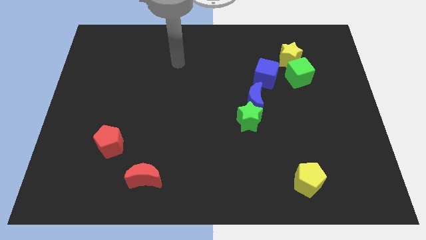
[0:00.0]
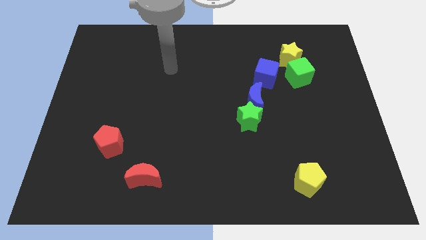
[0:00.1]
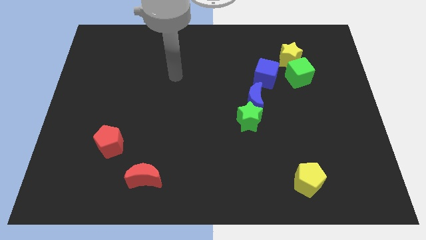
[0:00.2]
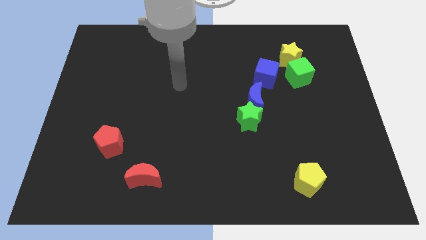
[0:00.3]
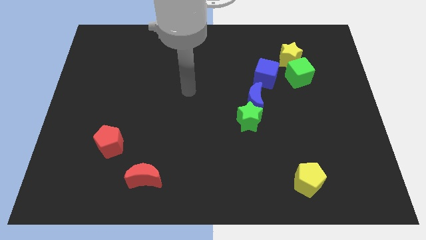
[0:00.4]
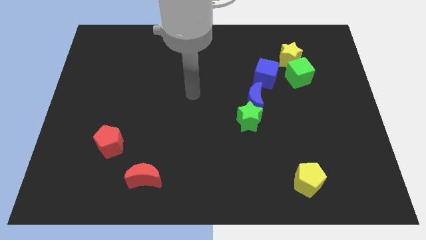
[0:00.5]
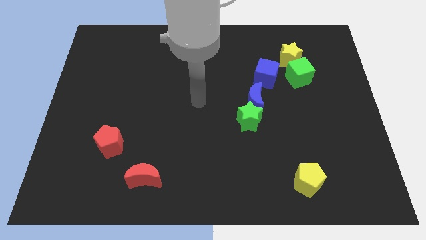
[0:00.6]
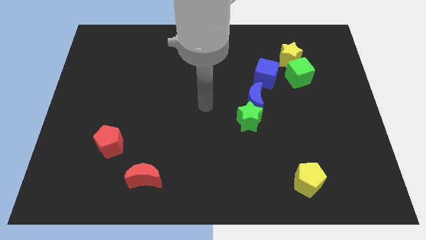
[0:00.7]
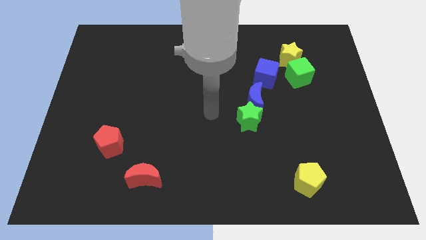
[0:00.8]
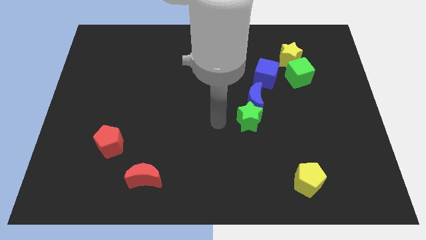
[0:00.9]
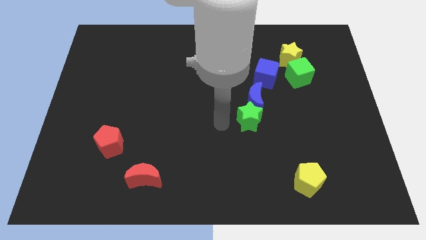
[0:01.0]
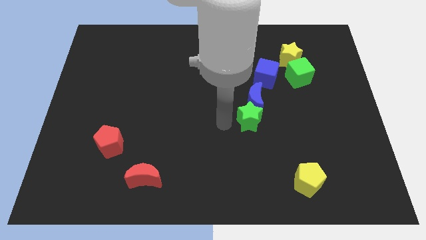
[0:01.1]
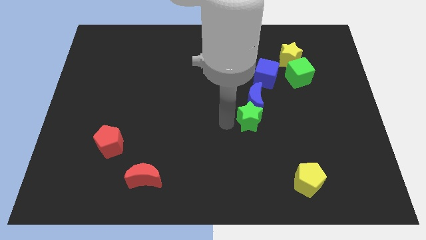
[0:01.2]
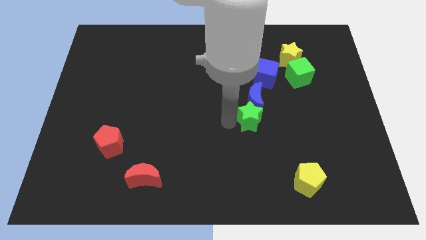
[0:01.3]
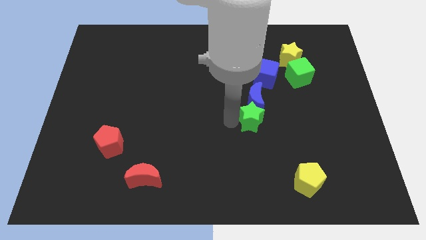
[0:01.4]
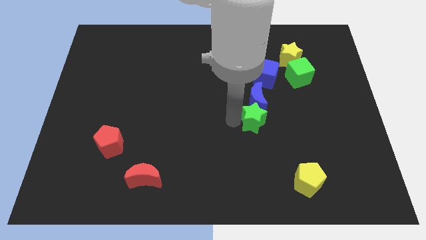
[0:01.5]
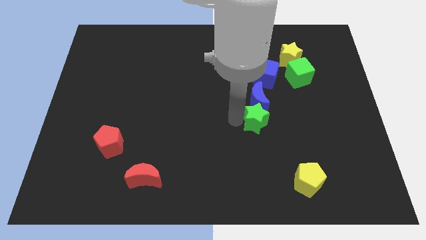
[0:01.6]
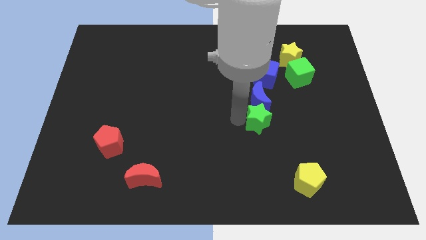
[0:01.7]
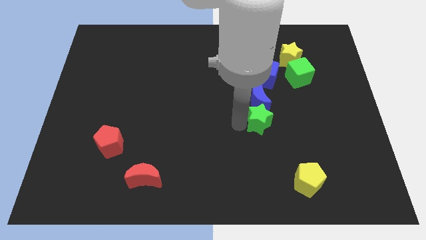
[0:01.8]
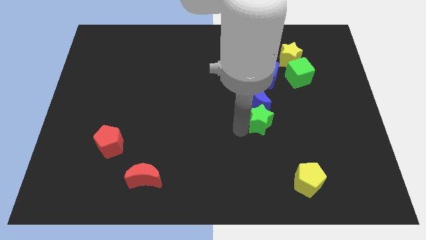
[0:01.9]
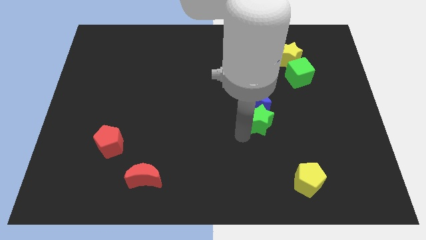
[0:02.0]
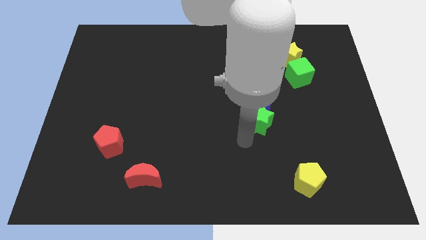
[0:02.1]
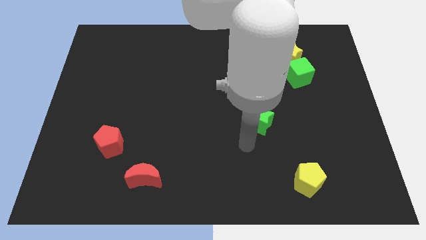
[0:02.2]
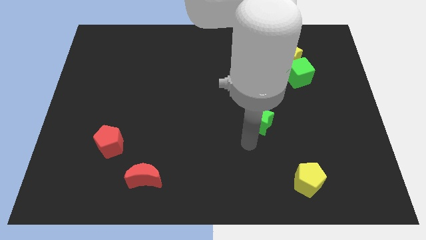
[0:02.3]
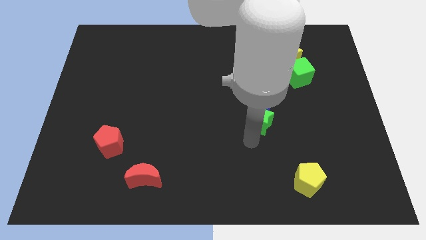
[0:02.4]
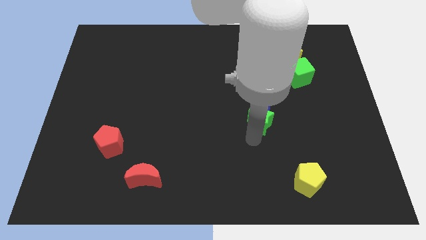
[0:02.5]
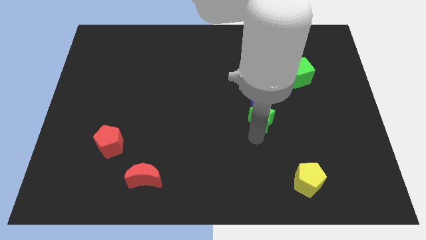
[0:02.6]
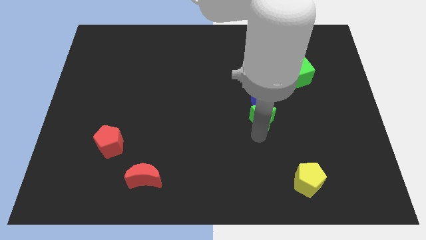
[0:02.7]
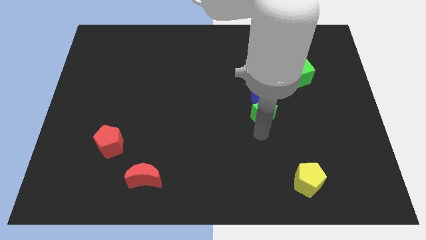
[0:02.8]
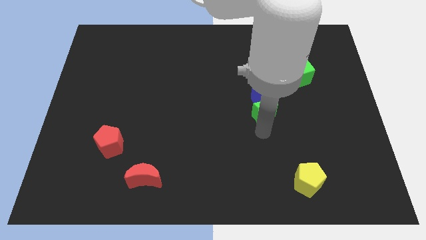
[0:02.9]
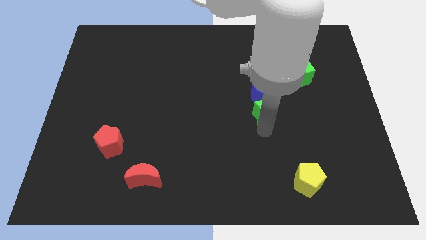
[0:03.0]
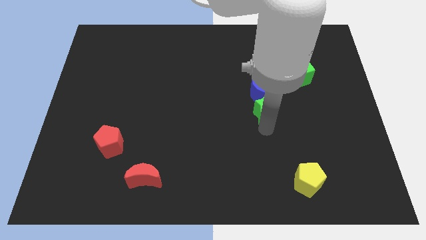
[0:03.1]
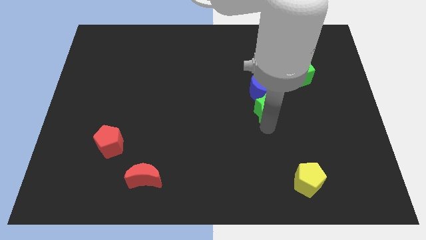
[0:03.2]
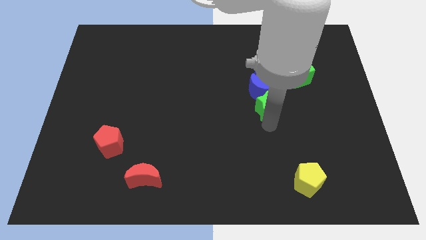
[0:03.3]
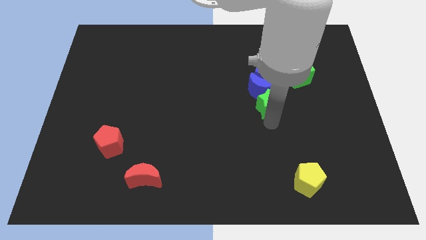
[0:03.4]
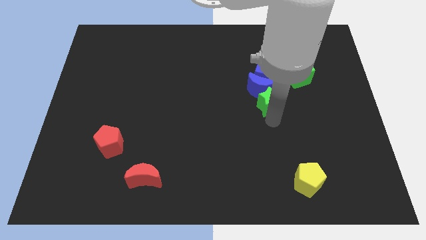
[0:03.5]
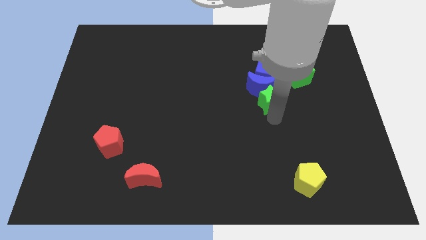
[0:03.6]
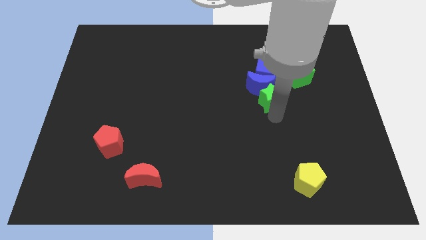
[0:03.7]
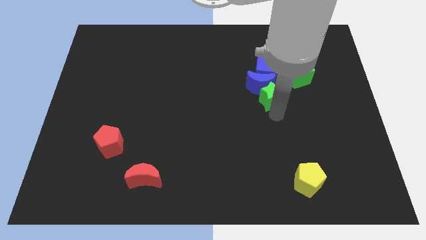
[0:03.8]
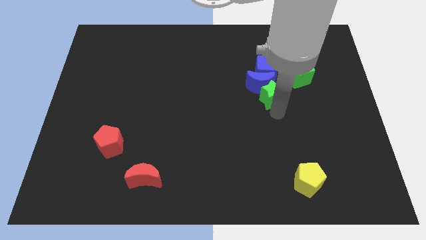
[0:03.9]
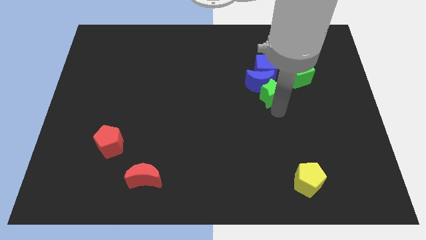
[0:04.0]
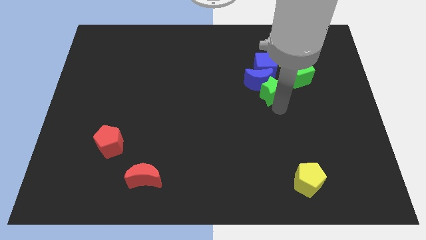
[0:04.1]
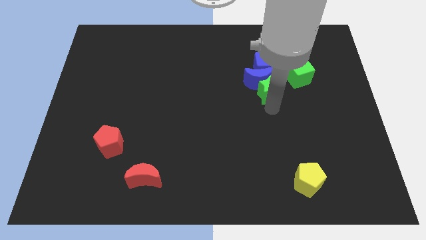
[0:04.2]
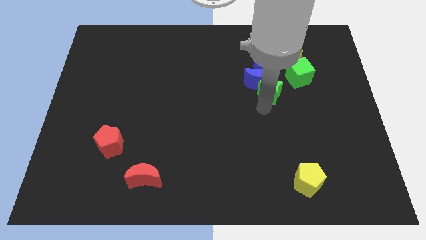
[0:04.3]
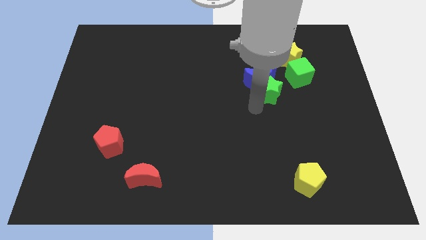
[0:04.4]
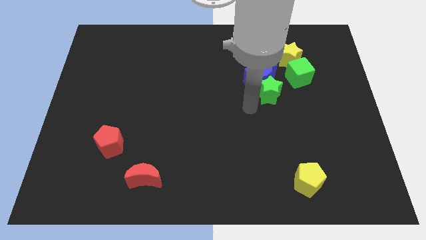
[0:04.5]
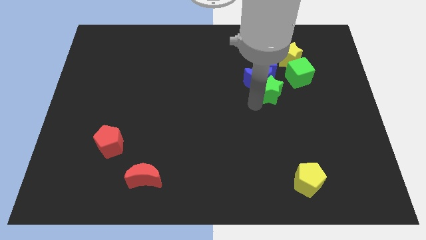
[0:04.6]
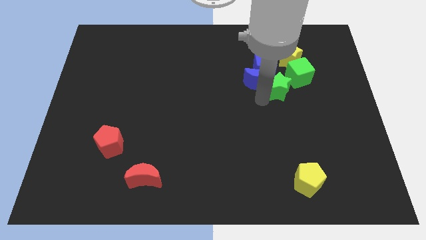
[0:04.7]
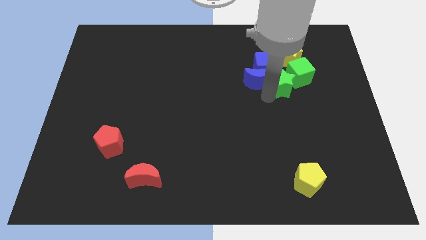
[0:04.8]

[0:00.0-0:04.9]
slide the green star close to the green cube

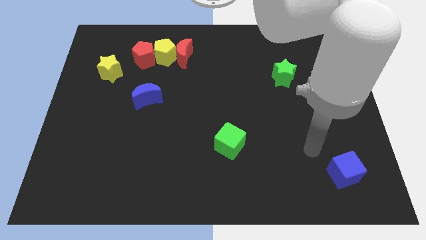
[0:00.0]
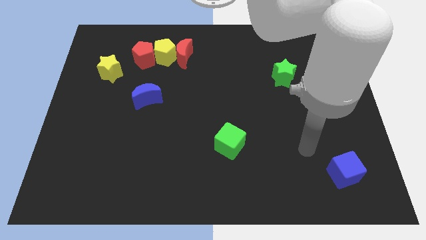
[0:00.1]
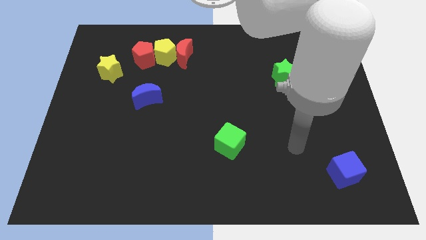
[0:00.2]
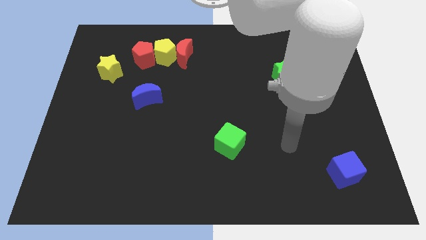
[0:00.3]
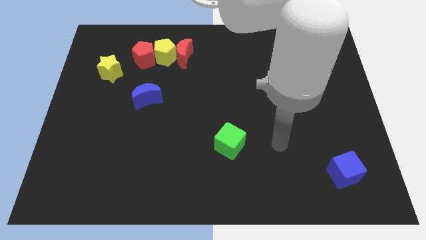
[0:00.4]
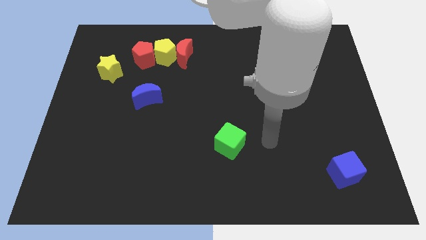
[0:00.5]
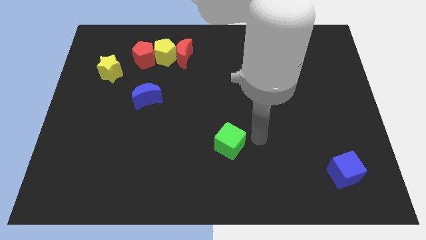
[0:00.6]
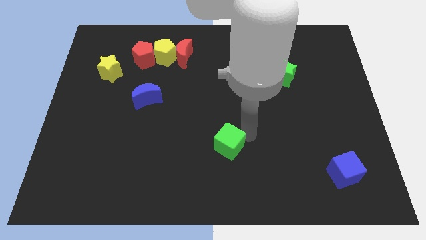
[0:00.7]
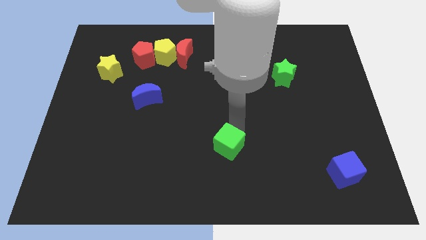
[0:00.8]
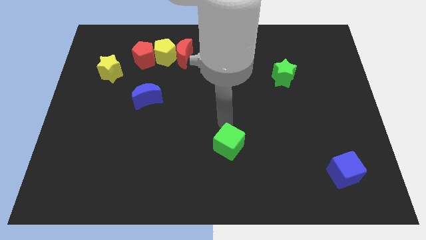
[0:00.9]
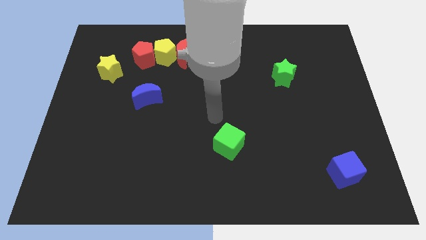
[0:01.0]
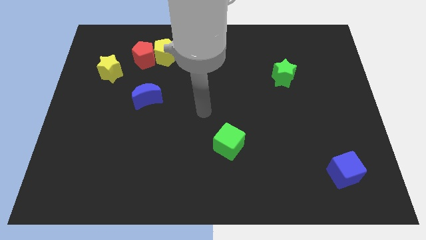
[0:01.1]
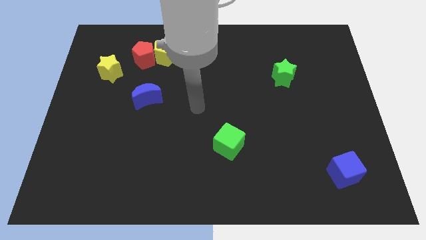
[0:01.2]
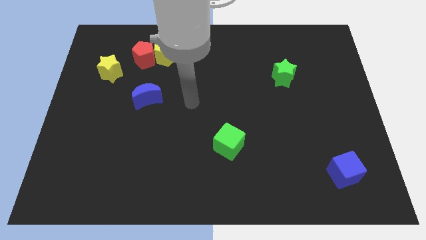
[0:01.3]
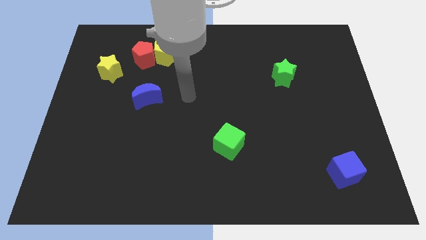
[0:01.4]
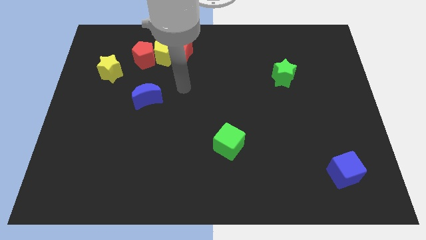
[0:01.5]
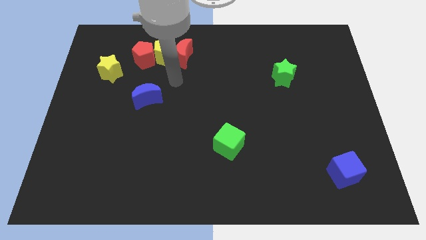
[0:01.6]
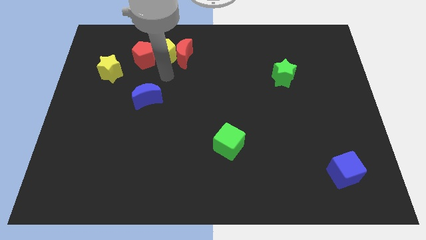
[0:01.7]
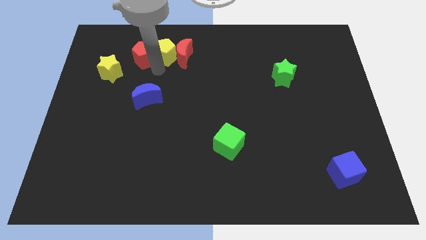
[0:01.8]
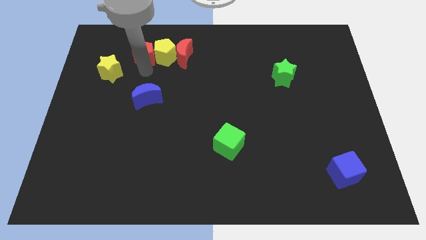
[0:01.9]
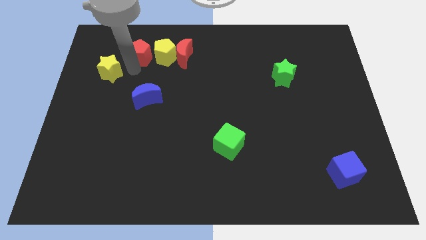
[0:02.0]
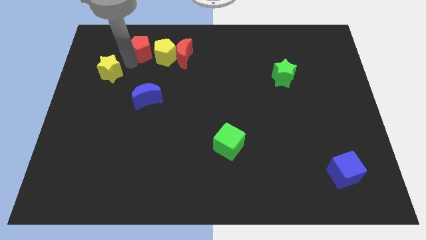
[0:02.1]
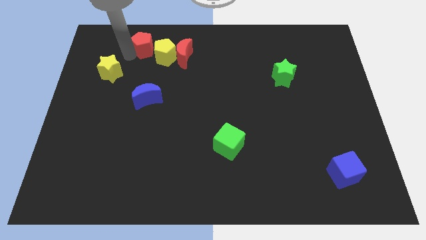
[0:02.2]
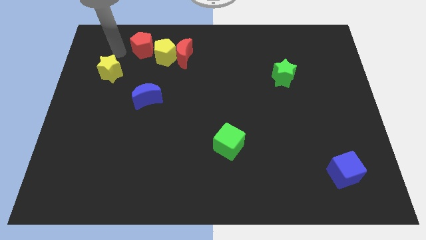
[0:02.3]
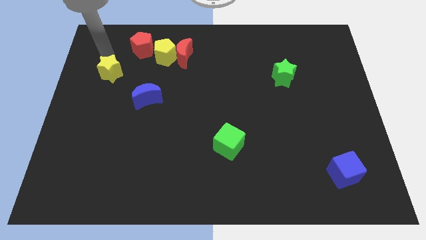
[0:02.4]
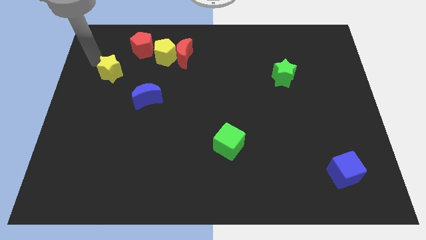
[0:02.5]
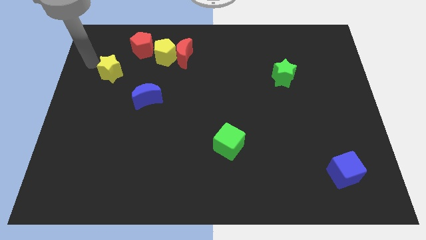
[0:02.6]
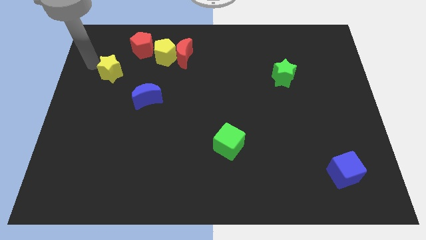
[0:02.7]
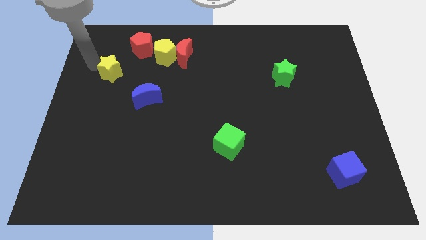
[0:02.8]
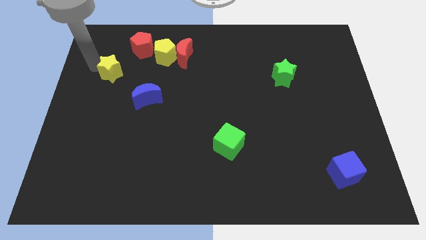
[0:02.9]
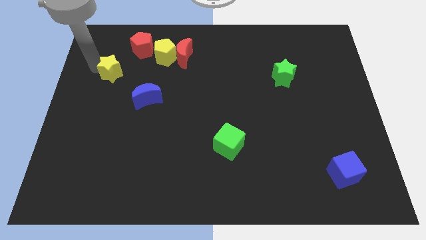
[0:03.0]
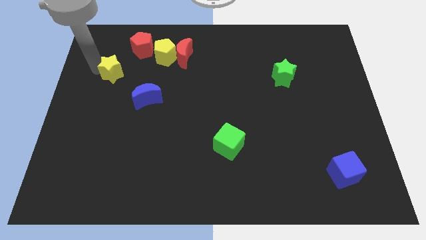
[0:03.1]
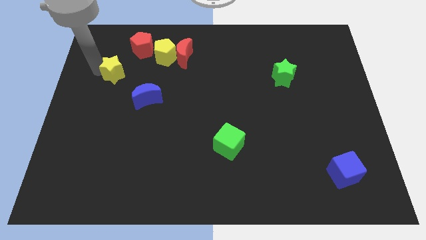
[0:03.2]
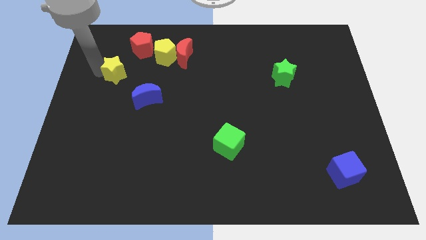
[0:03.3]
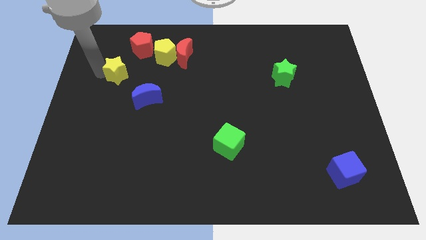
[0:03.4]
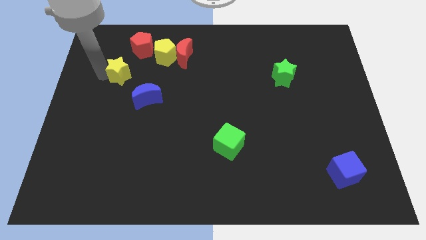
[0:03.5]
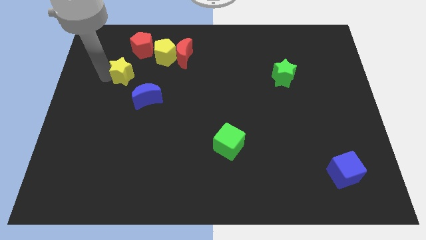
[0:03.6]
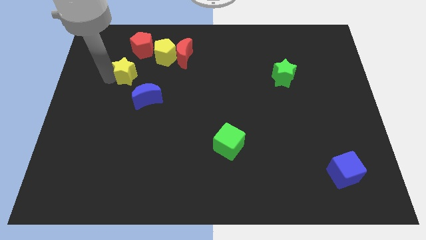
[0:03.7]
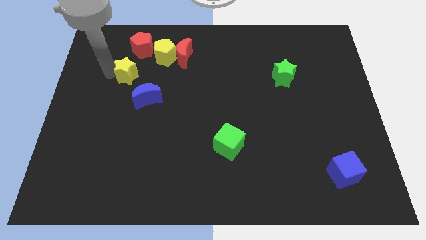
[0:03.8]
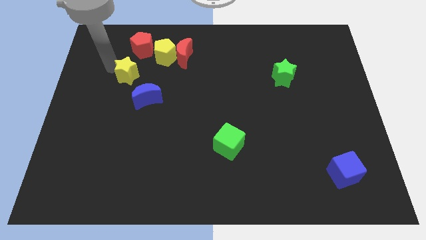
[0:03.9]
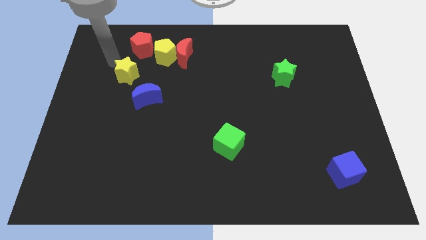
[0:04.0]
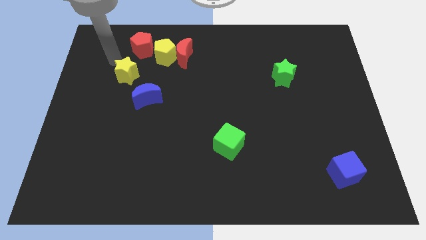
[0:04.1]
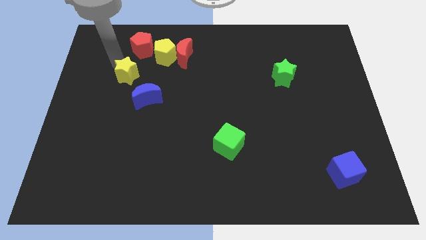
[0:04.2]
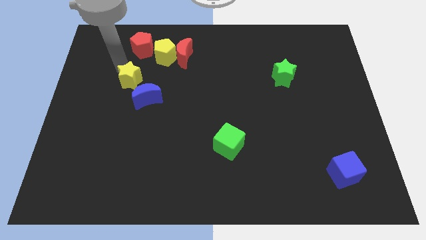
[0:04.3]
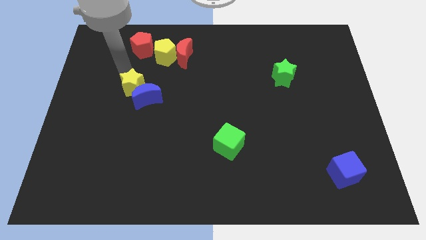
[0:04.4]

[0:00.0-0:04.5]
push the yellow star close to the blue moon
